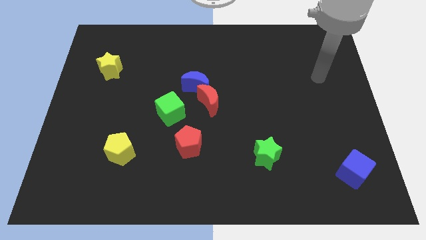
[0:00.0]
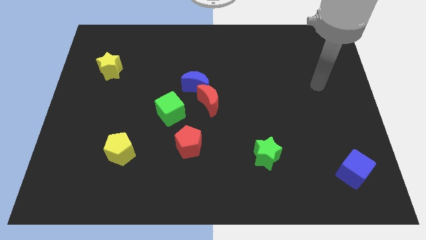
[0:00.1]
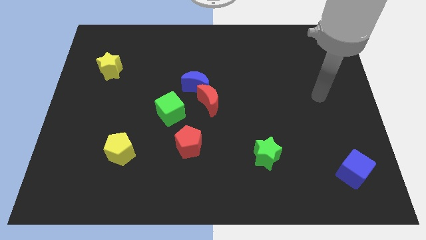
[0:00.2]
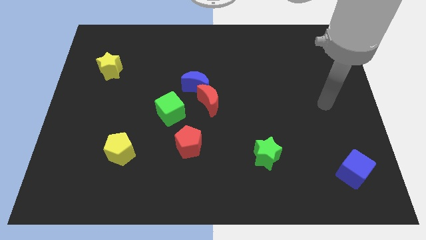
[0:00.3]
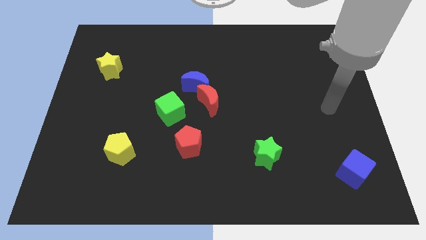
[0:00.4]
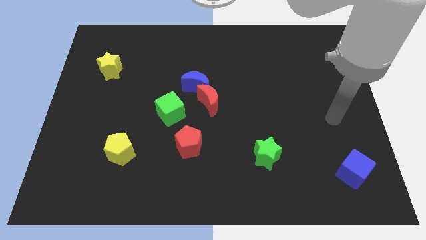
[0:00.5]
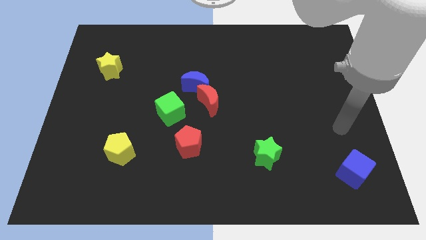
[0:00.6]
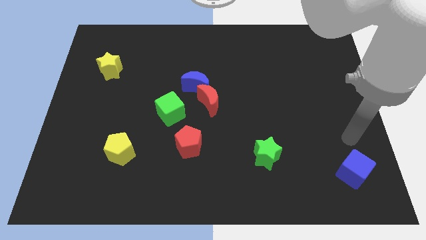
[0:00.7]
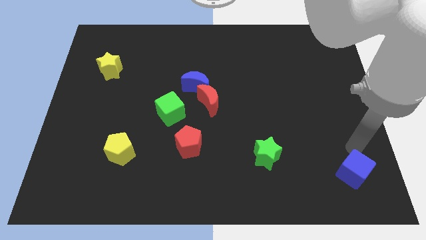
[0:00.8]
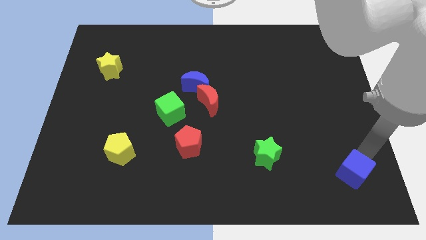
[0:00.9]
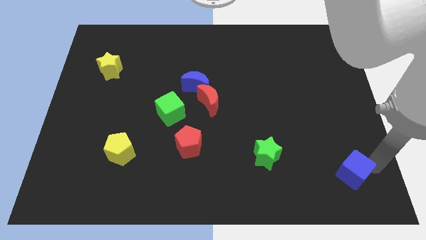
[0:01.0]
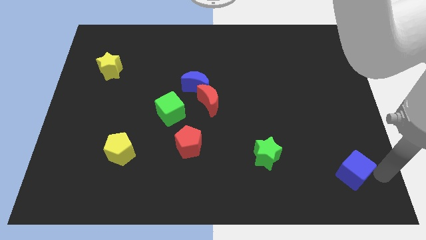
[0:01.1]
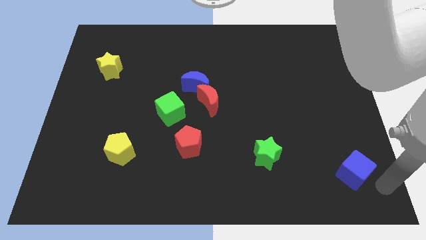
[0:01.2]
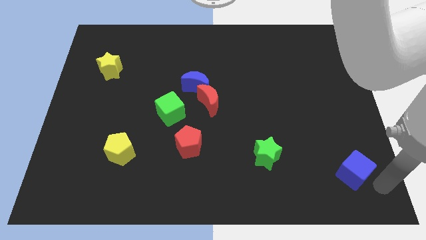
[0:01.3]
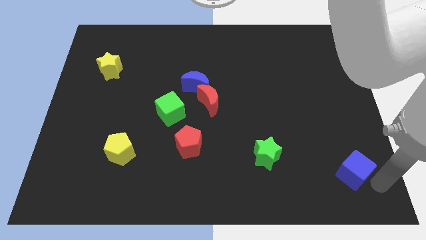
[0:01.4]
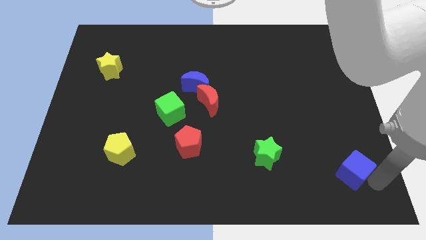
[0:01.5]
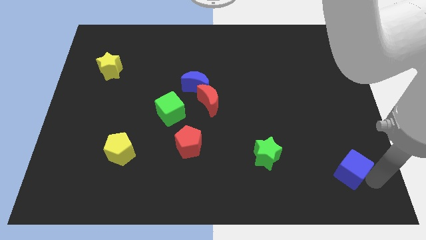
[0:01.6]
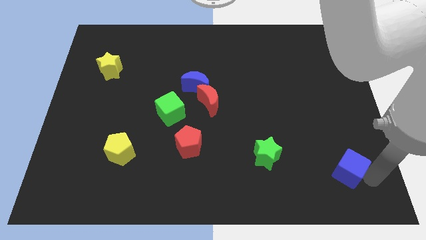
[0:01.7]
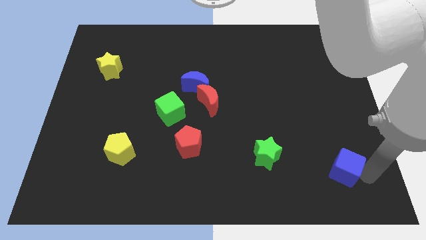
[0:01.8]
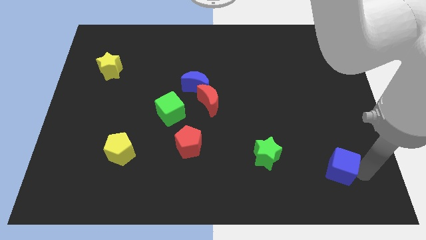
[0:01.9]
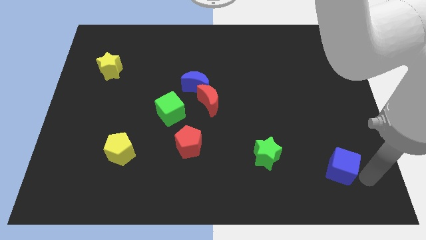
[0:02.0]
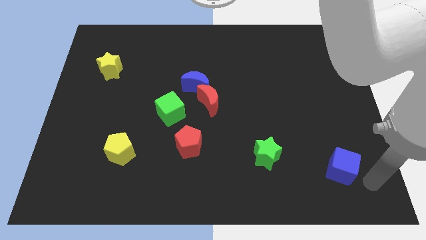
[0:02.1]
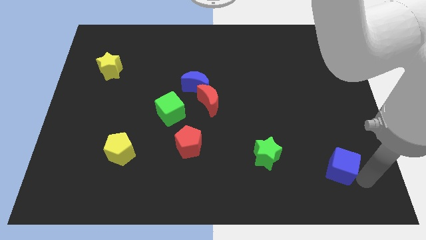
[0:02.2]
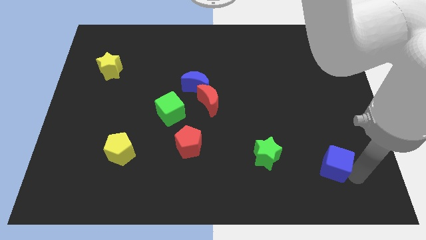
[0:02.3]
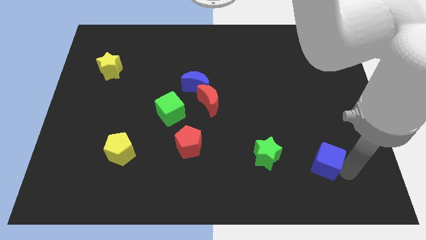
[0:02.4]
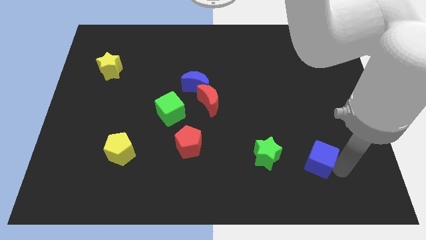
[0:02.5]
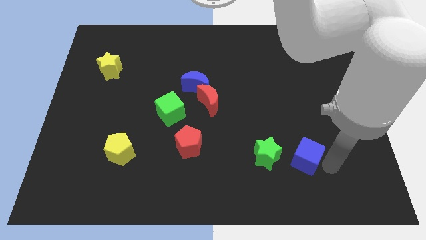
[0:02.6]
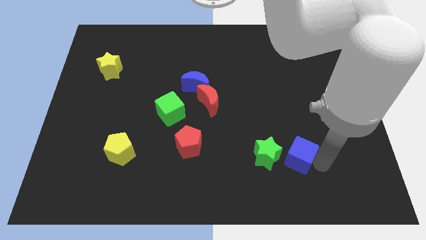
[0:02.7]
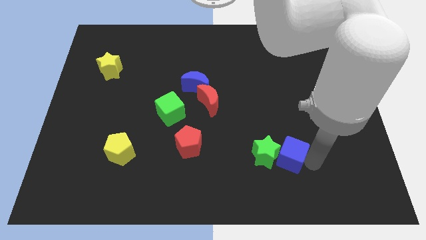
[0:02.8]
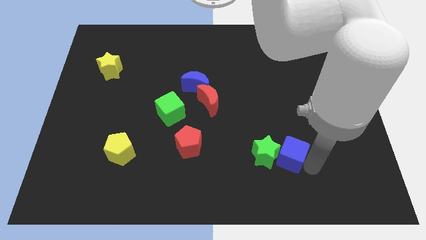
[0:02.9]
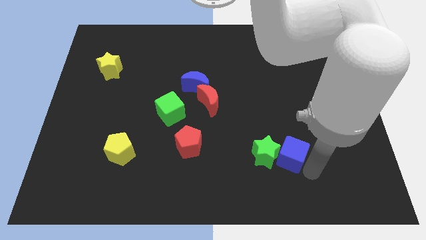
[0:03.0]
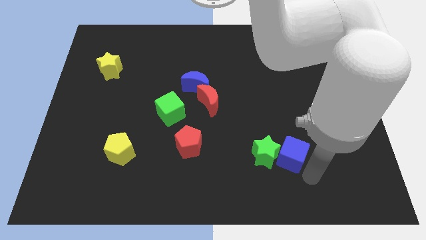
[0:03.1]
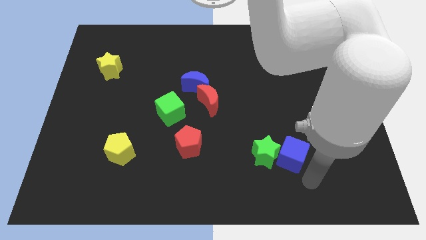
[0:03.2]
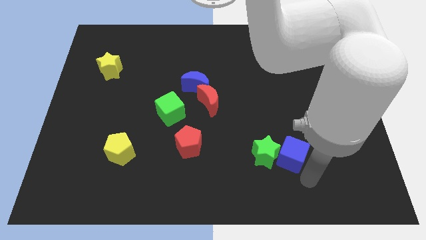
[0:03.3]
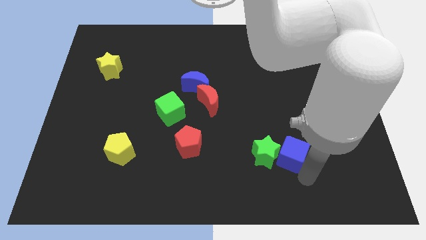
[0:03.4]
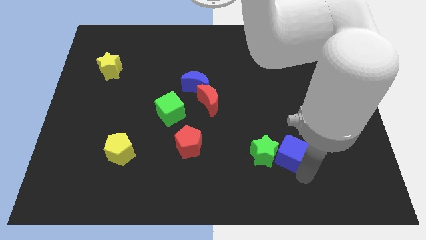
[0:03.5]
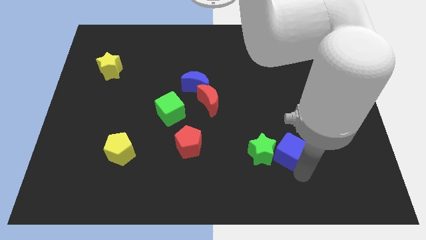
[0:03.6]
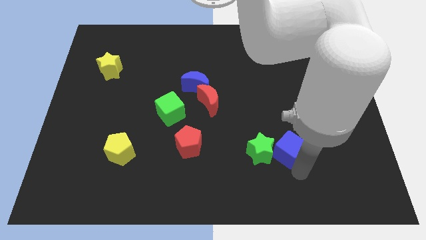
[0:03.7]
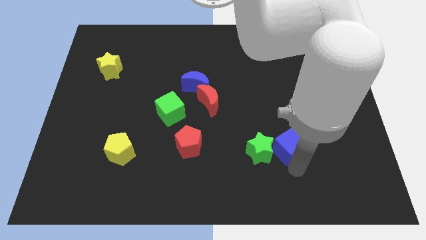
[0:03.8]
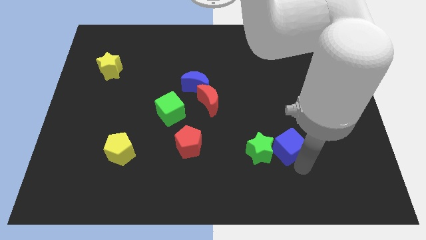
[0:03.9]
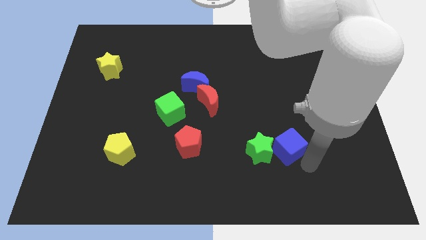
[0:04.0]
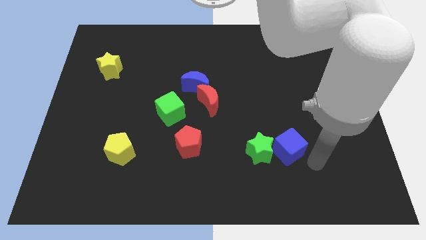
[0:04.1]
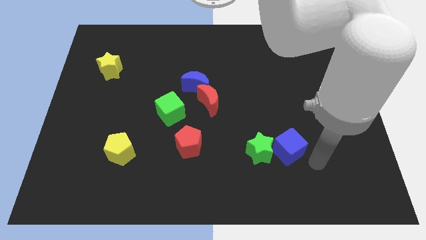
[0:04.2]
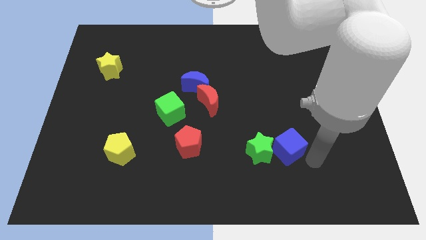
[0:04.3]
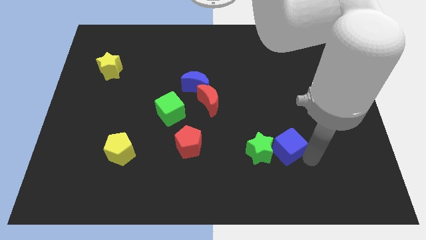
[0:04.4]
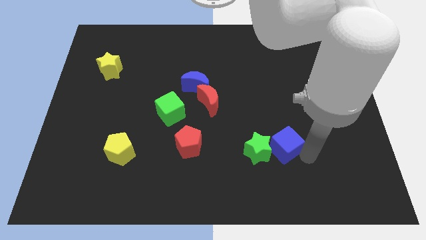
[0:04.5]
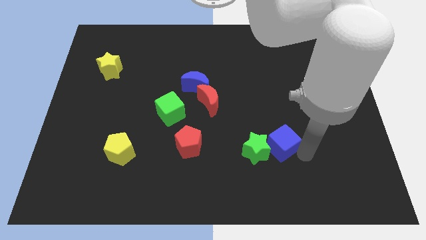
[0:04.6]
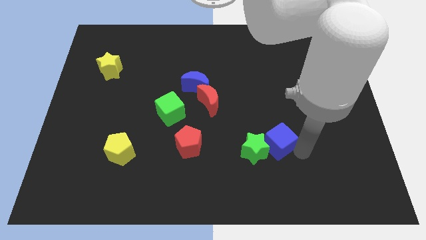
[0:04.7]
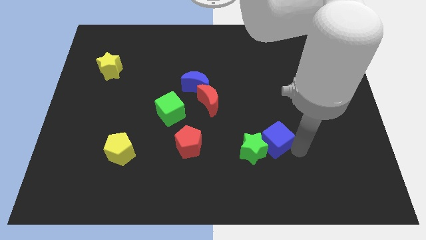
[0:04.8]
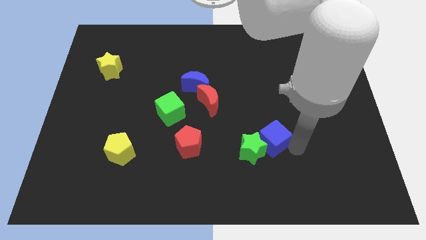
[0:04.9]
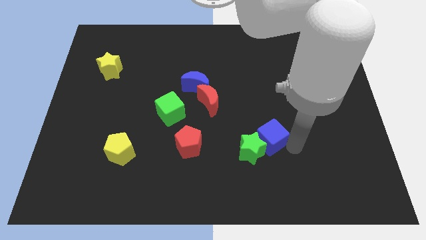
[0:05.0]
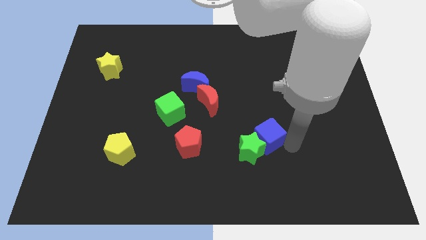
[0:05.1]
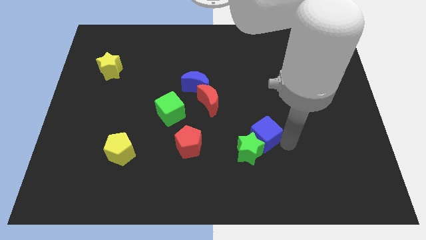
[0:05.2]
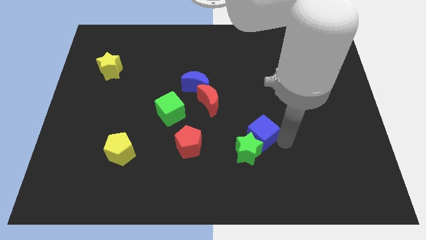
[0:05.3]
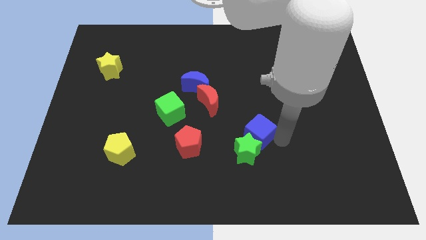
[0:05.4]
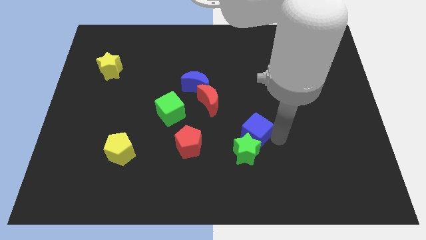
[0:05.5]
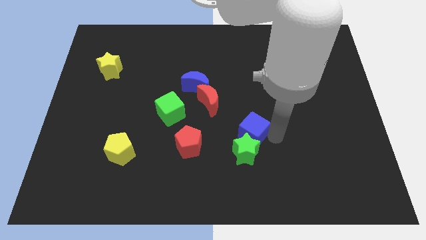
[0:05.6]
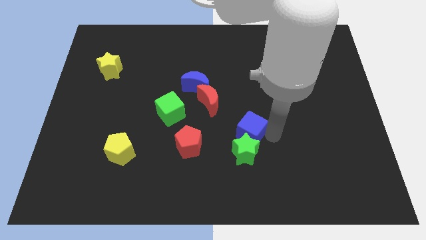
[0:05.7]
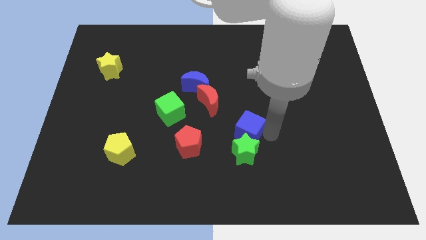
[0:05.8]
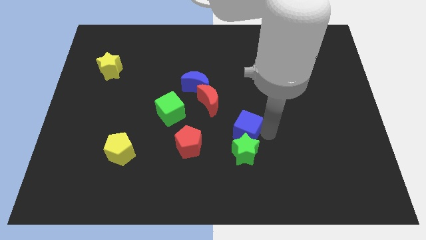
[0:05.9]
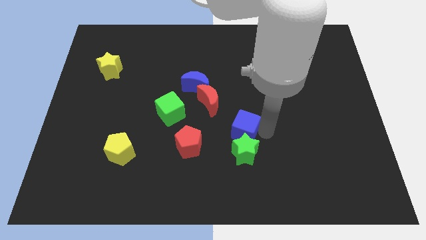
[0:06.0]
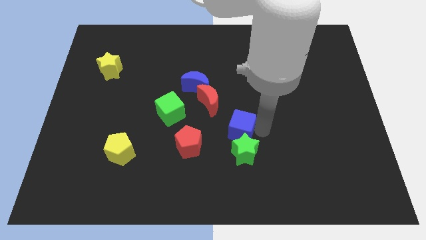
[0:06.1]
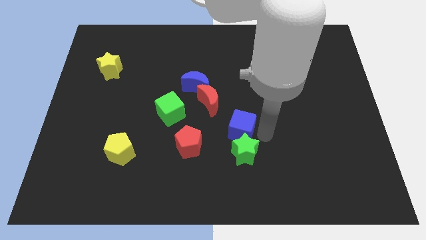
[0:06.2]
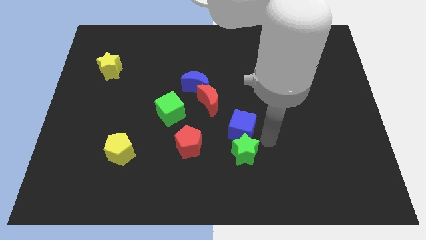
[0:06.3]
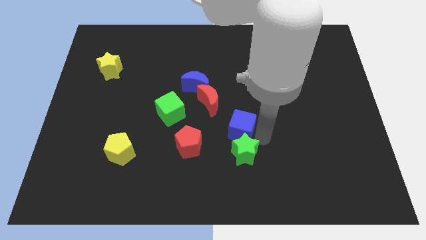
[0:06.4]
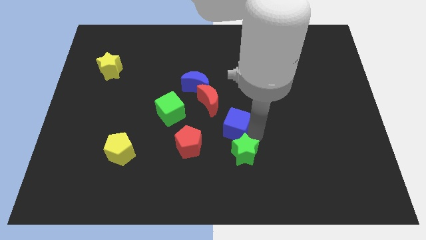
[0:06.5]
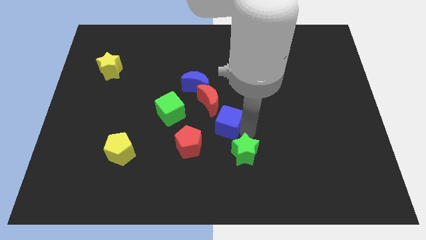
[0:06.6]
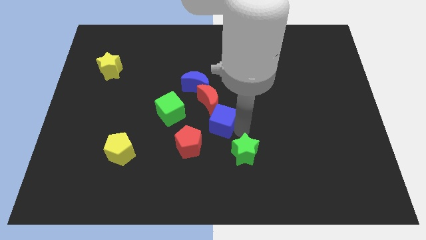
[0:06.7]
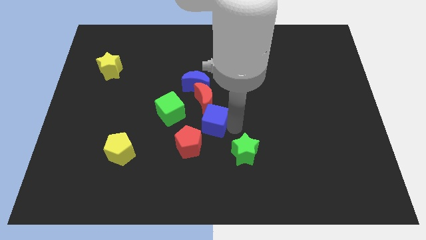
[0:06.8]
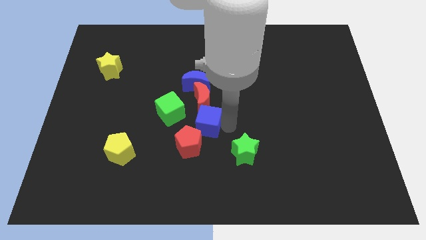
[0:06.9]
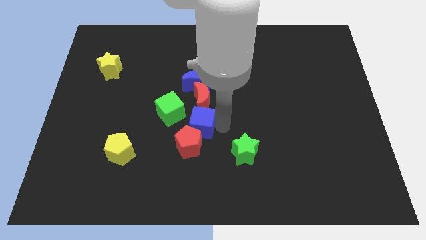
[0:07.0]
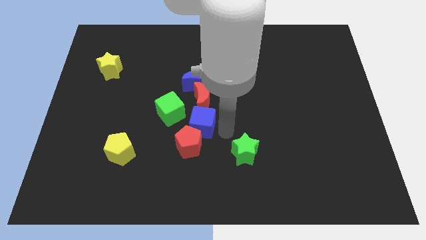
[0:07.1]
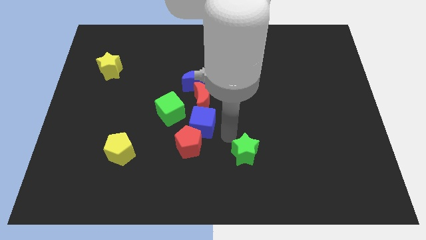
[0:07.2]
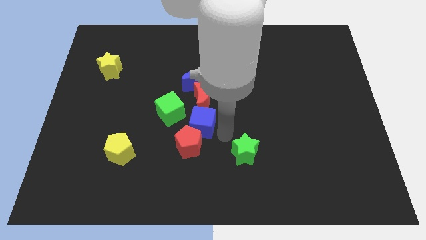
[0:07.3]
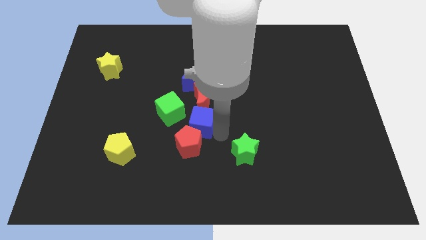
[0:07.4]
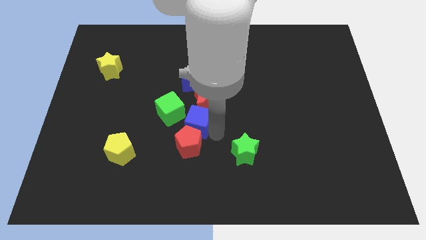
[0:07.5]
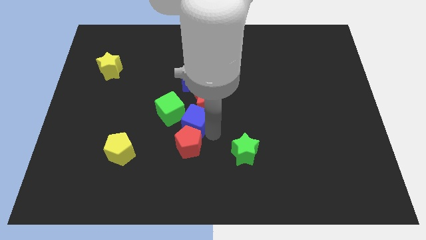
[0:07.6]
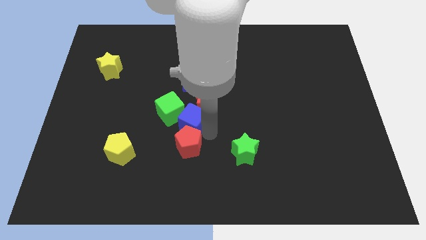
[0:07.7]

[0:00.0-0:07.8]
put the blue cube to the green cube
